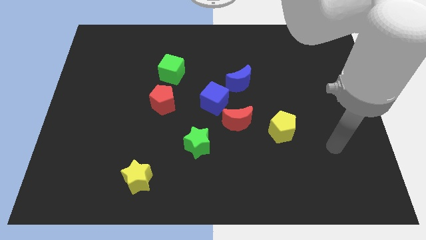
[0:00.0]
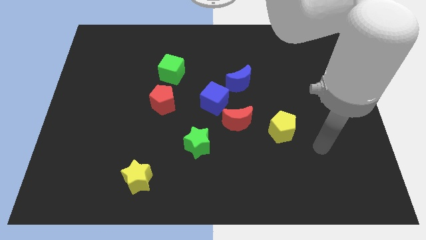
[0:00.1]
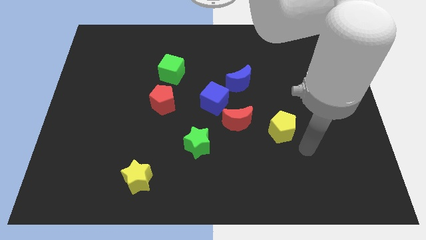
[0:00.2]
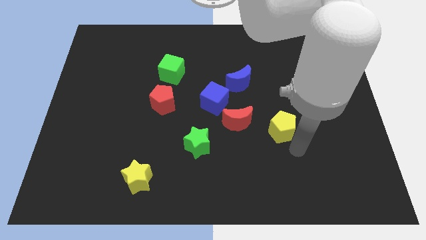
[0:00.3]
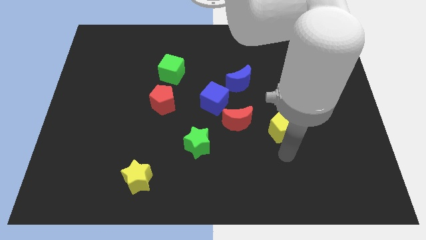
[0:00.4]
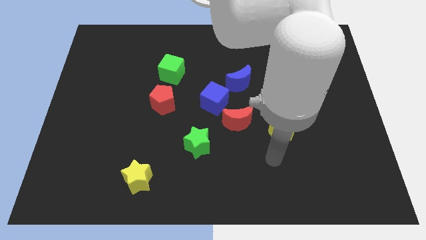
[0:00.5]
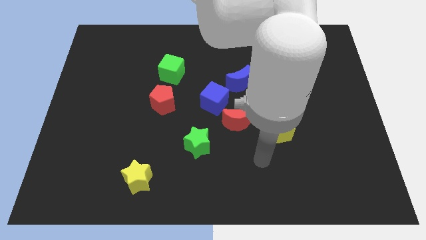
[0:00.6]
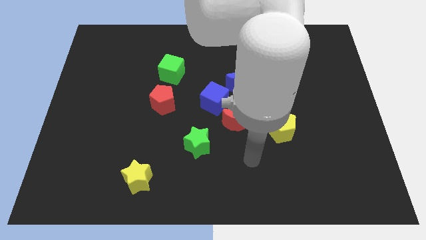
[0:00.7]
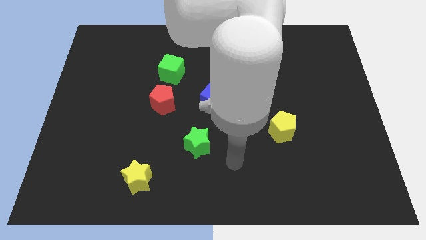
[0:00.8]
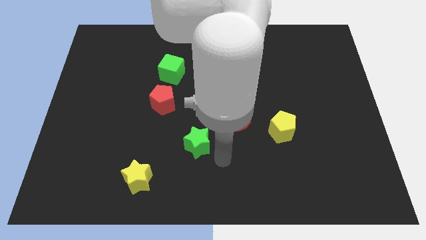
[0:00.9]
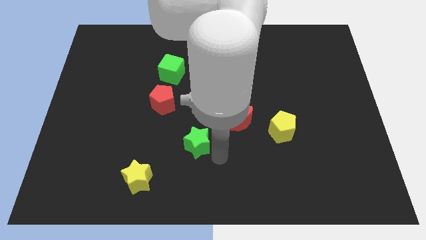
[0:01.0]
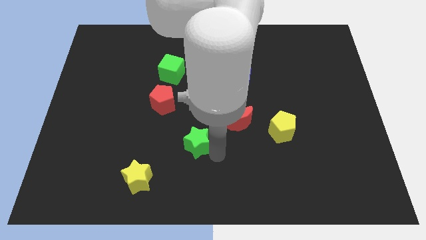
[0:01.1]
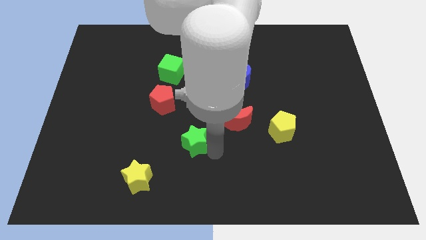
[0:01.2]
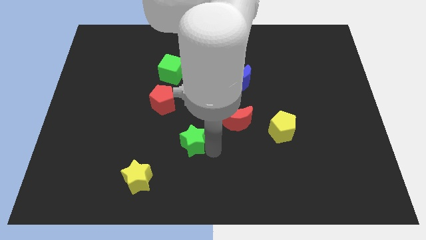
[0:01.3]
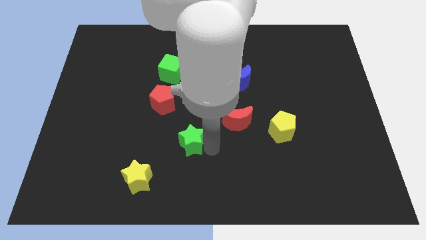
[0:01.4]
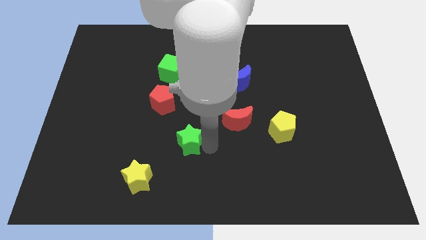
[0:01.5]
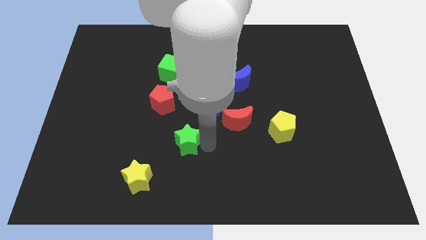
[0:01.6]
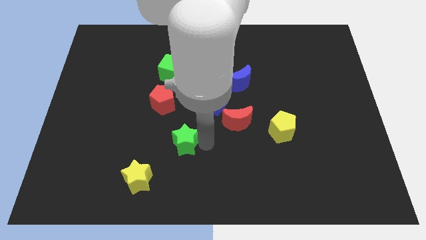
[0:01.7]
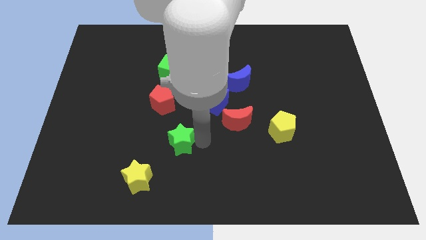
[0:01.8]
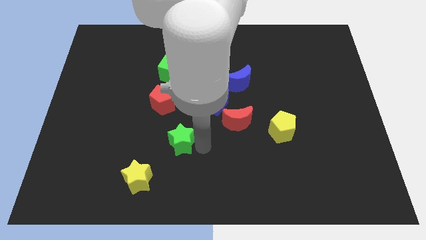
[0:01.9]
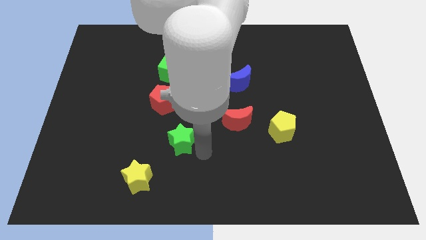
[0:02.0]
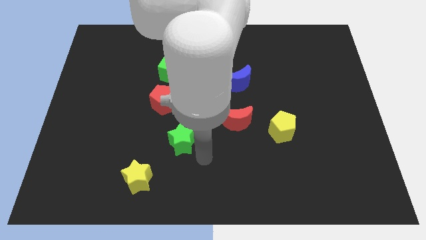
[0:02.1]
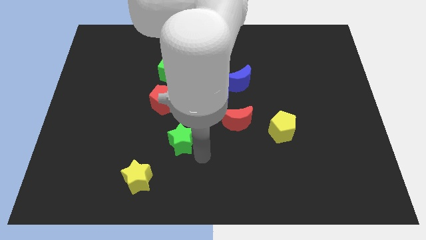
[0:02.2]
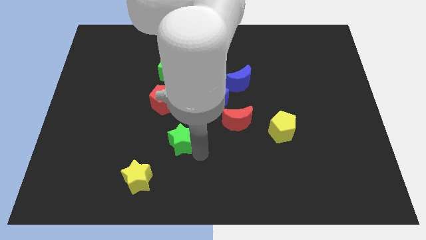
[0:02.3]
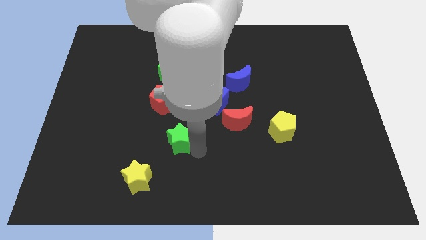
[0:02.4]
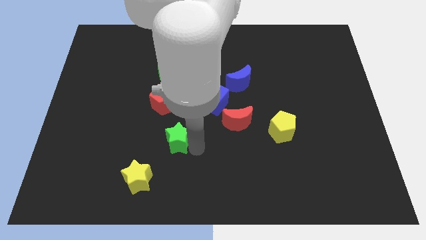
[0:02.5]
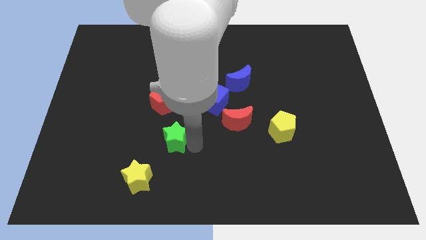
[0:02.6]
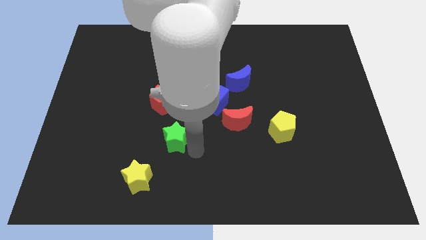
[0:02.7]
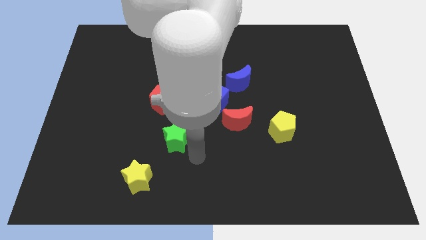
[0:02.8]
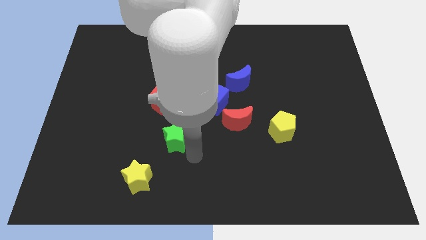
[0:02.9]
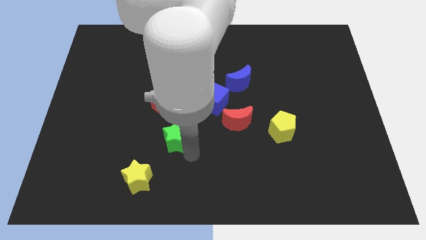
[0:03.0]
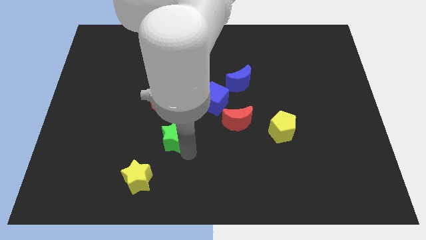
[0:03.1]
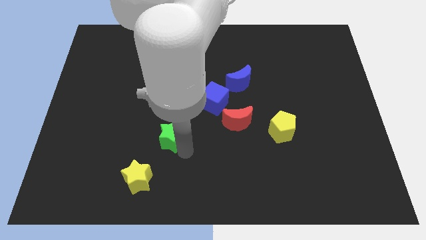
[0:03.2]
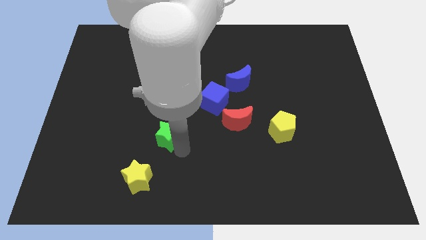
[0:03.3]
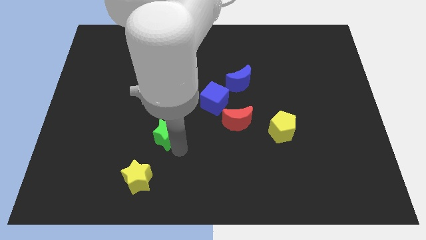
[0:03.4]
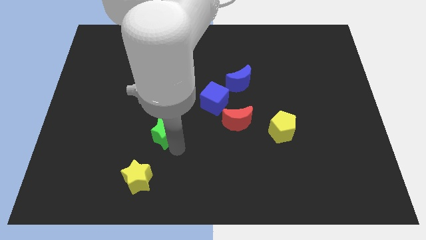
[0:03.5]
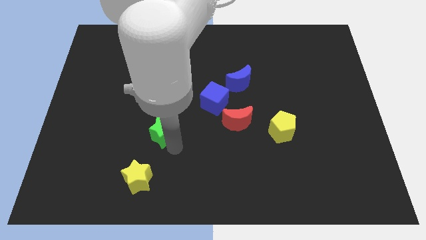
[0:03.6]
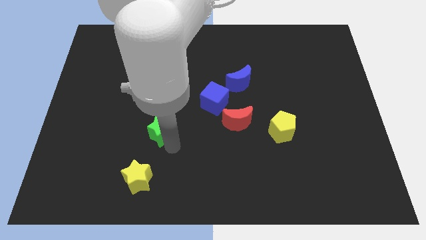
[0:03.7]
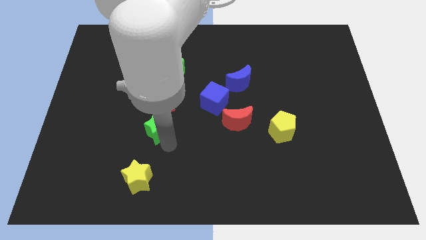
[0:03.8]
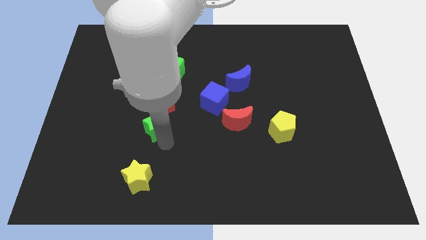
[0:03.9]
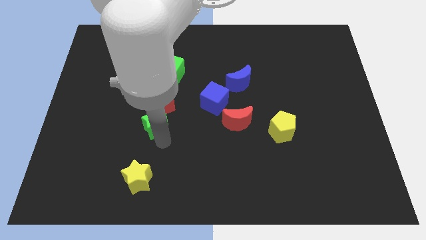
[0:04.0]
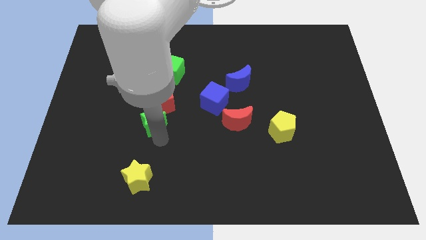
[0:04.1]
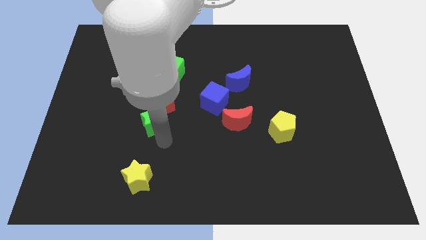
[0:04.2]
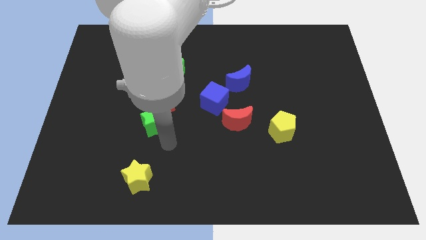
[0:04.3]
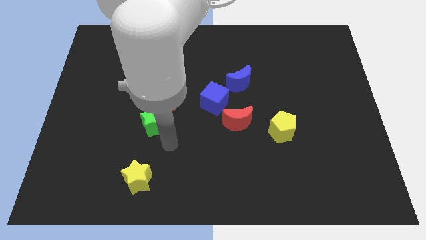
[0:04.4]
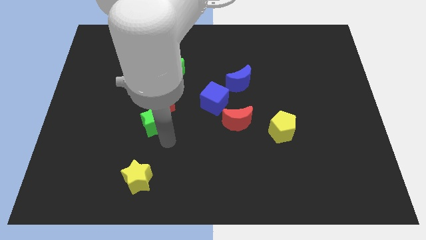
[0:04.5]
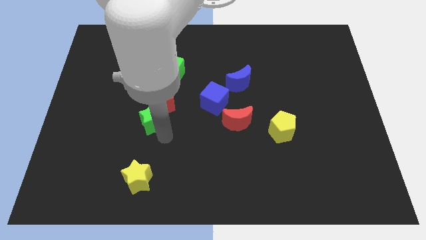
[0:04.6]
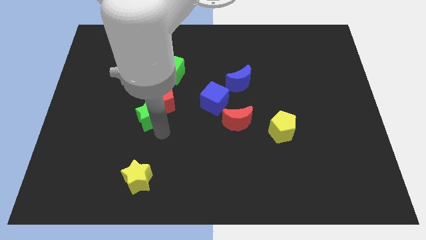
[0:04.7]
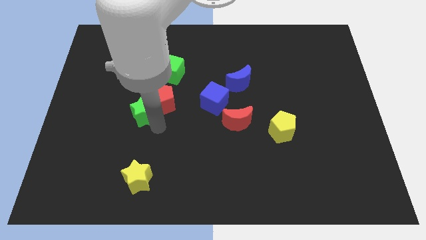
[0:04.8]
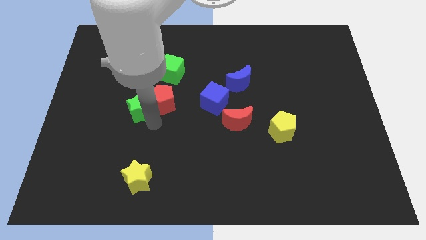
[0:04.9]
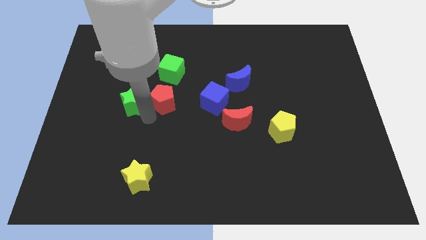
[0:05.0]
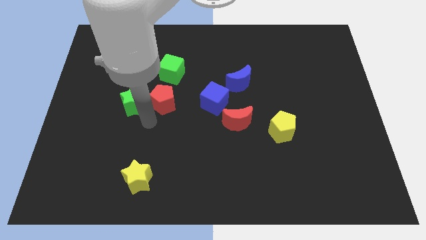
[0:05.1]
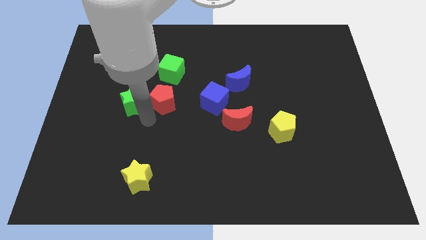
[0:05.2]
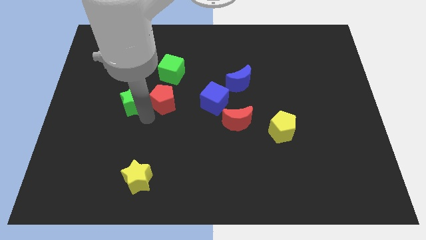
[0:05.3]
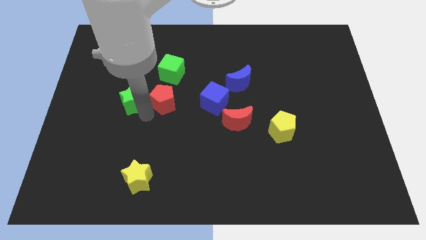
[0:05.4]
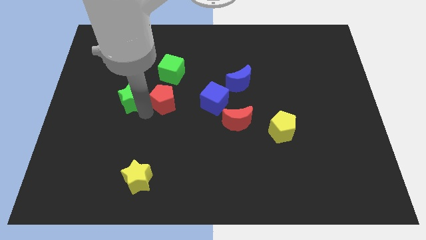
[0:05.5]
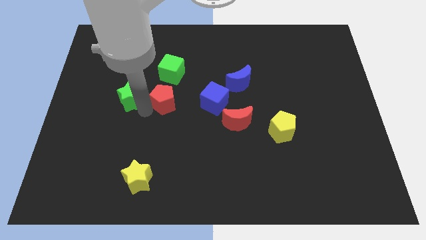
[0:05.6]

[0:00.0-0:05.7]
push the green star up and then left

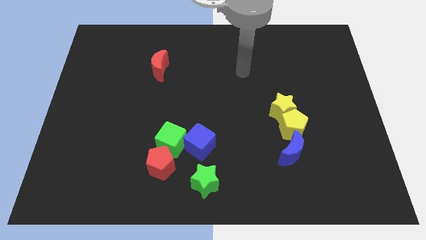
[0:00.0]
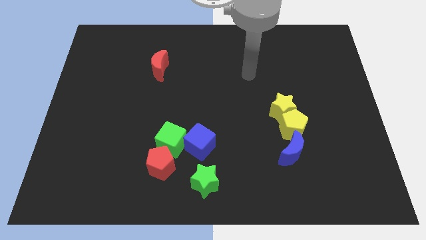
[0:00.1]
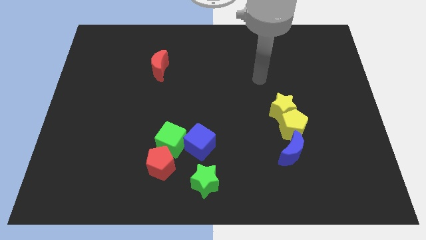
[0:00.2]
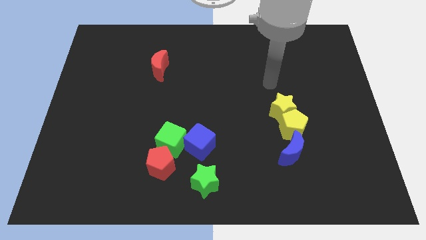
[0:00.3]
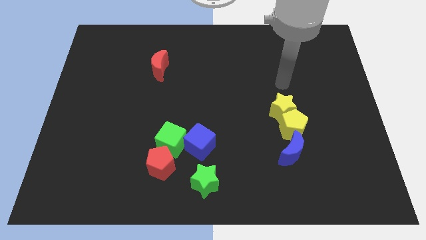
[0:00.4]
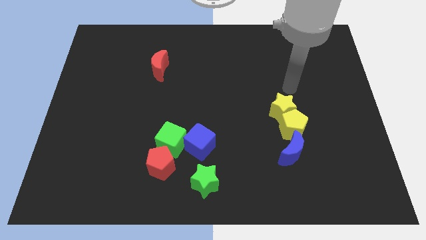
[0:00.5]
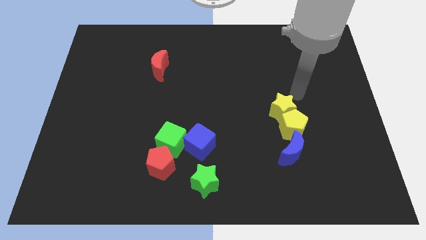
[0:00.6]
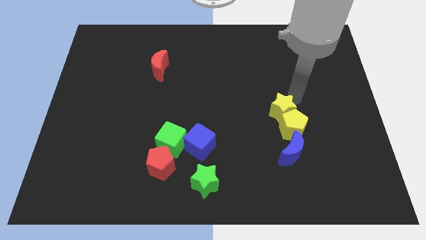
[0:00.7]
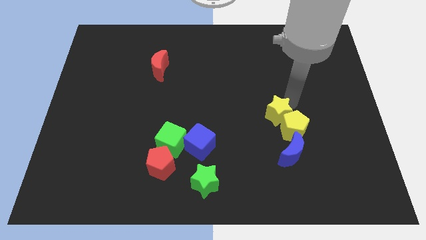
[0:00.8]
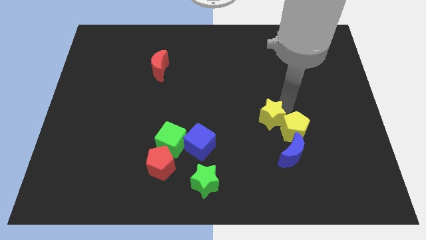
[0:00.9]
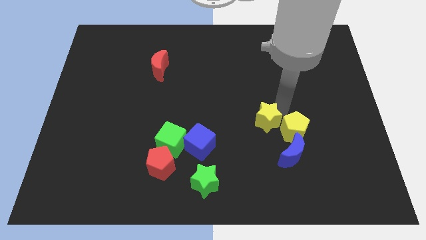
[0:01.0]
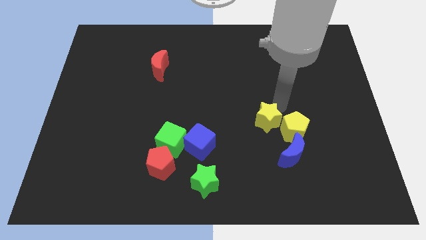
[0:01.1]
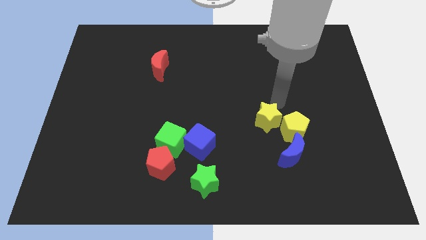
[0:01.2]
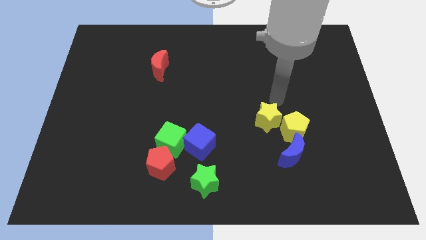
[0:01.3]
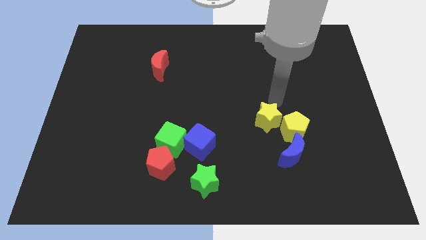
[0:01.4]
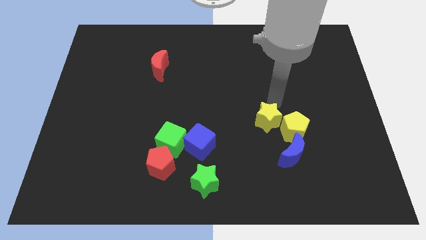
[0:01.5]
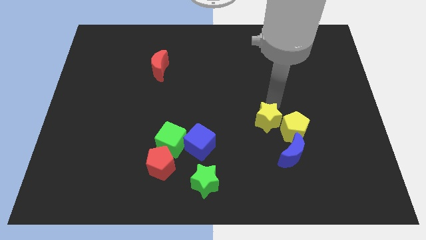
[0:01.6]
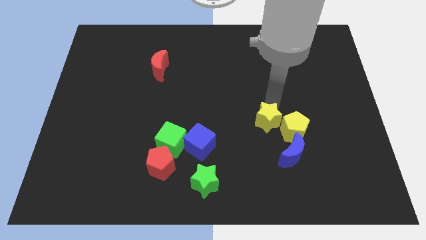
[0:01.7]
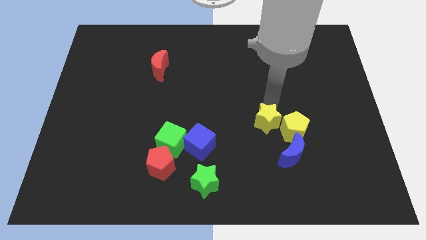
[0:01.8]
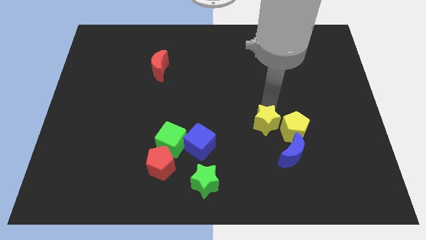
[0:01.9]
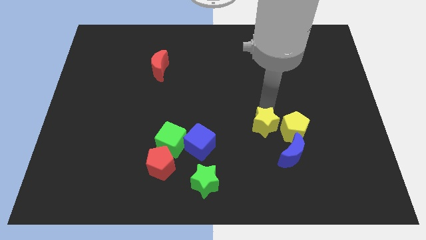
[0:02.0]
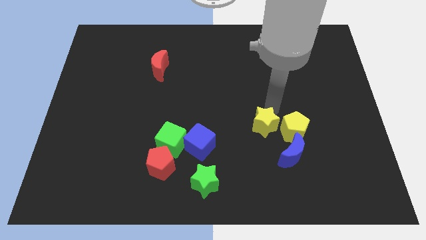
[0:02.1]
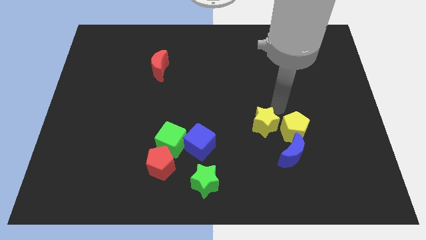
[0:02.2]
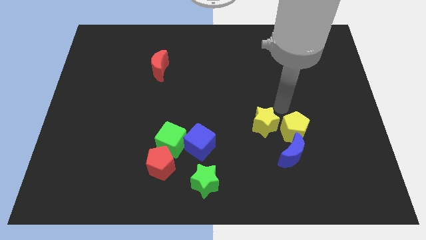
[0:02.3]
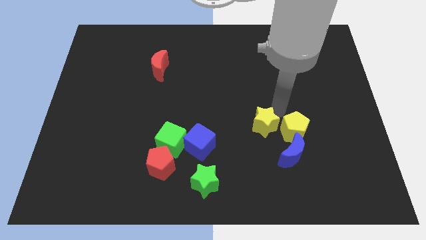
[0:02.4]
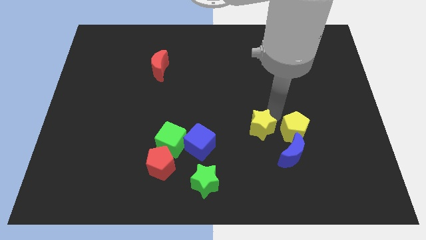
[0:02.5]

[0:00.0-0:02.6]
move the yellow star downwards and to the left a little
